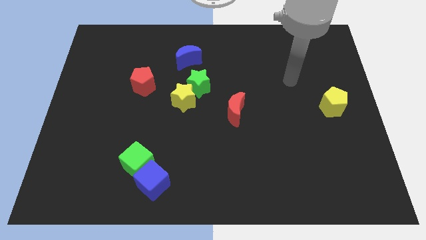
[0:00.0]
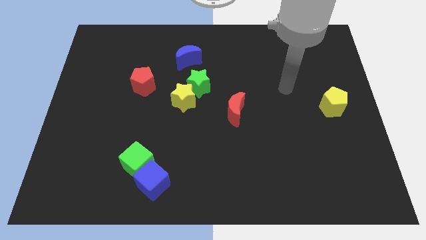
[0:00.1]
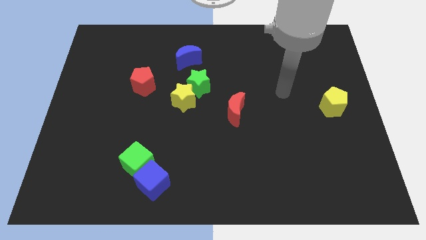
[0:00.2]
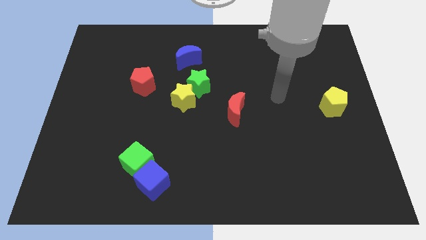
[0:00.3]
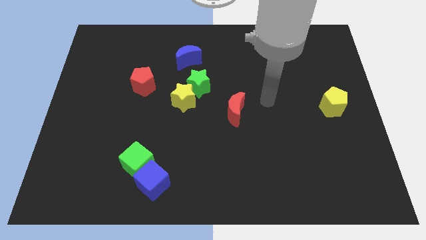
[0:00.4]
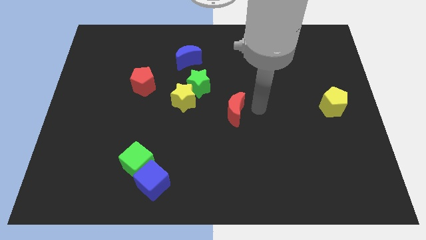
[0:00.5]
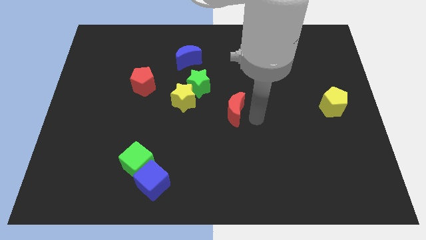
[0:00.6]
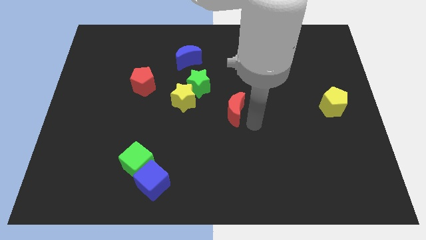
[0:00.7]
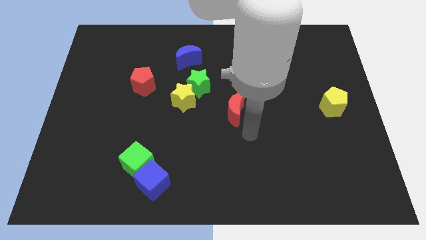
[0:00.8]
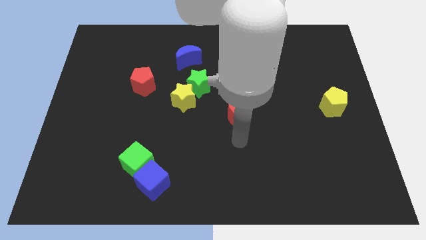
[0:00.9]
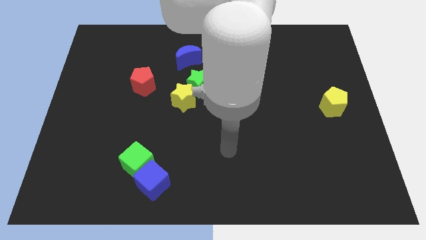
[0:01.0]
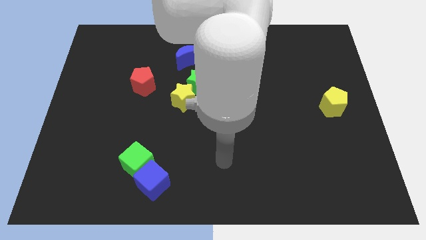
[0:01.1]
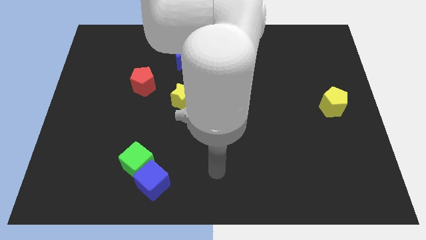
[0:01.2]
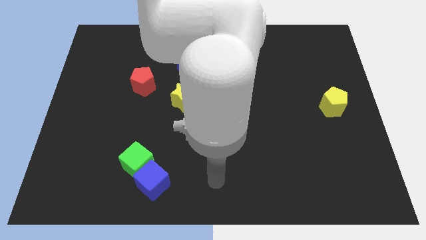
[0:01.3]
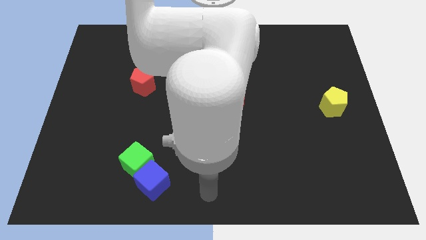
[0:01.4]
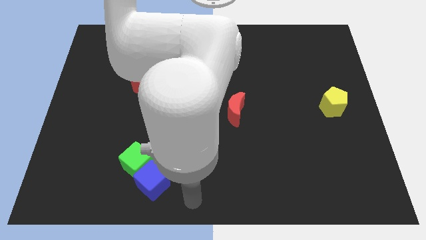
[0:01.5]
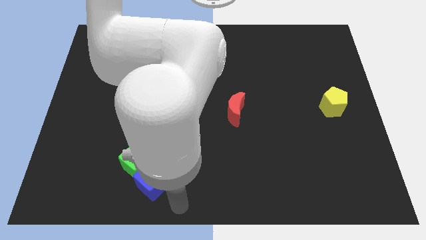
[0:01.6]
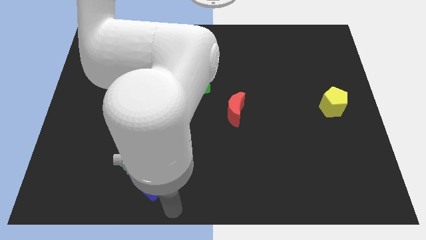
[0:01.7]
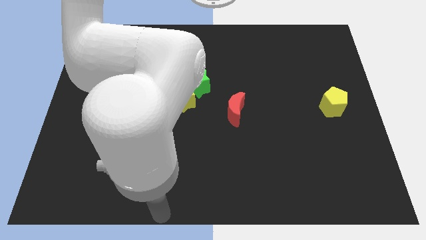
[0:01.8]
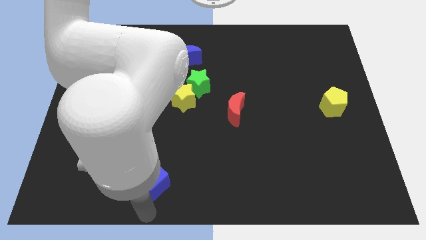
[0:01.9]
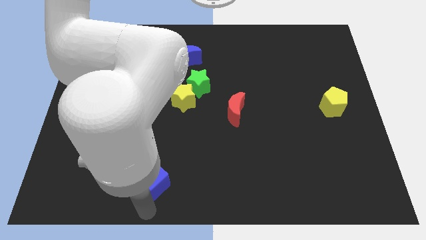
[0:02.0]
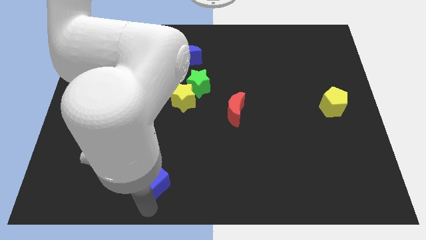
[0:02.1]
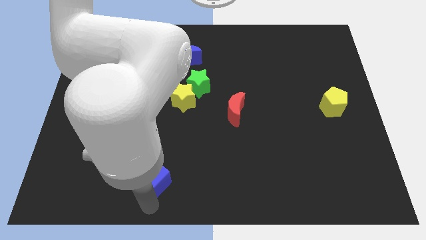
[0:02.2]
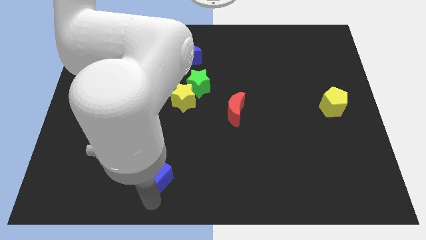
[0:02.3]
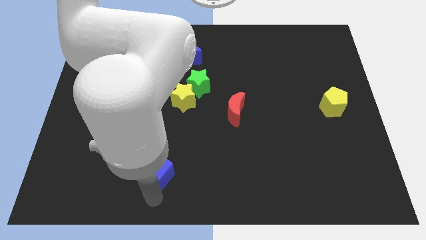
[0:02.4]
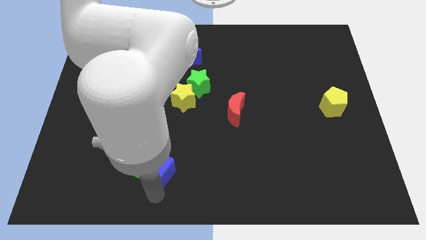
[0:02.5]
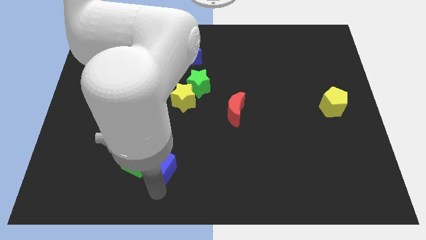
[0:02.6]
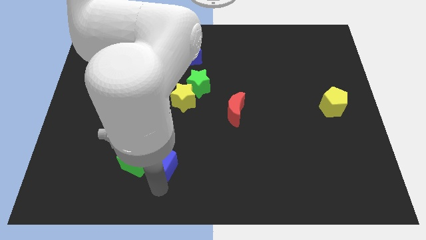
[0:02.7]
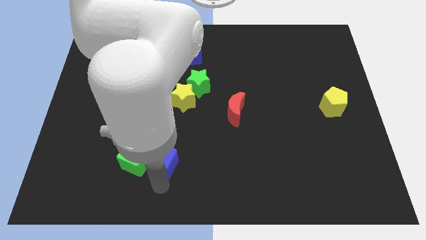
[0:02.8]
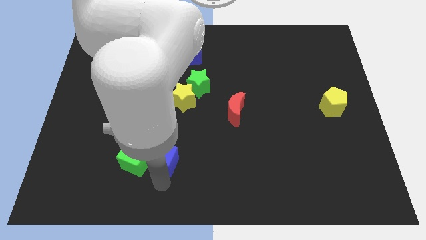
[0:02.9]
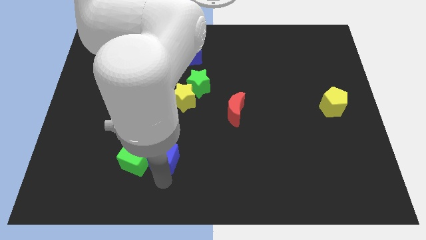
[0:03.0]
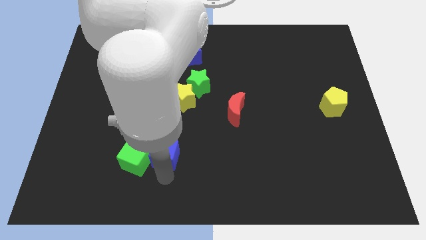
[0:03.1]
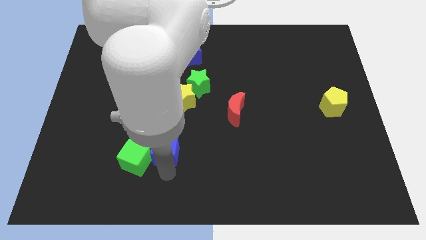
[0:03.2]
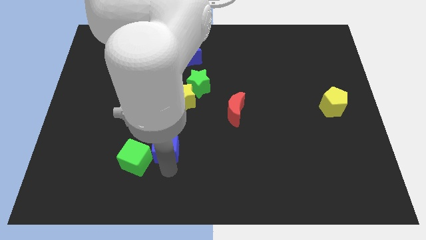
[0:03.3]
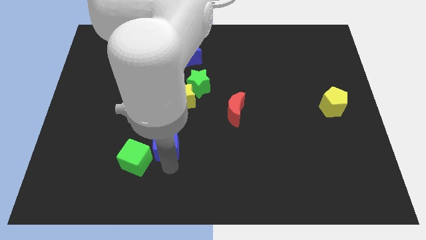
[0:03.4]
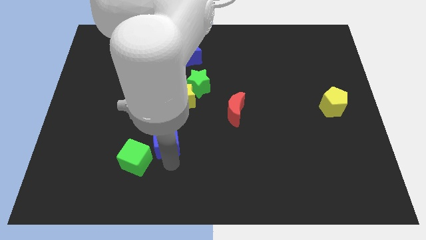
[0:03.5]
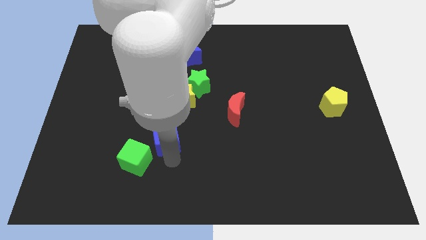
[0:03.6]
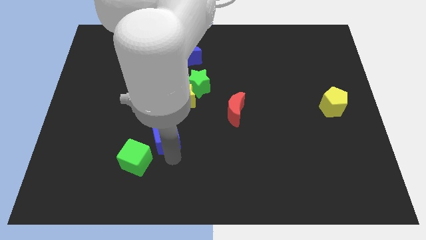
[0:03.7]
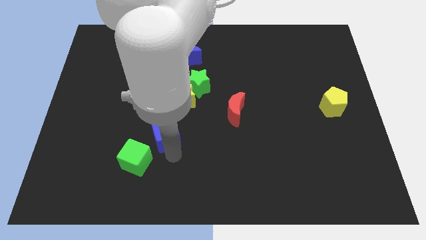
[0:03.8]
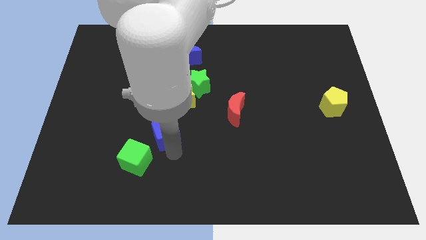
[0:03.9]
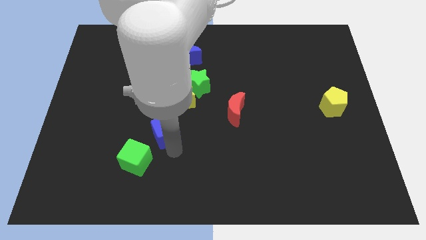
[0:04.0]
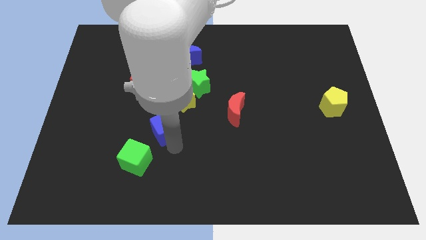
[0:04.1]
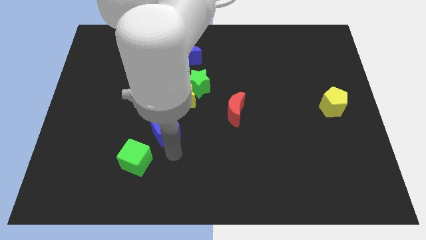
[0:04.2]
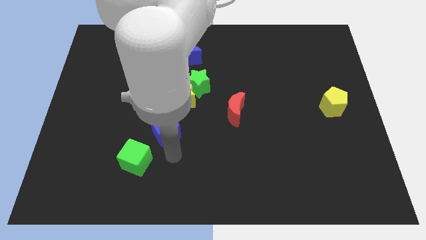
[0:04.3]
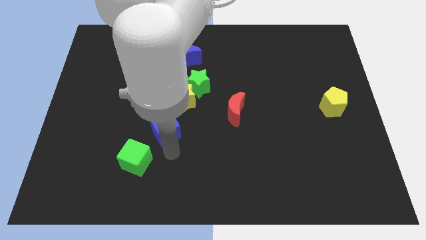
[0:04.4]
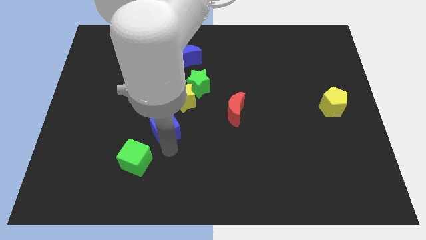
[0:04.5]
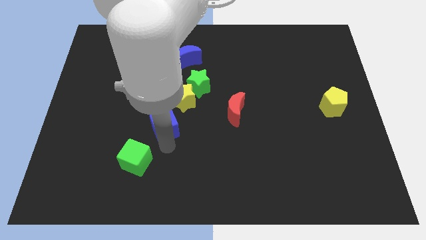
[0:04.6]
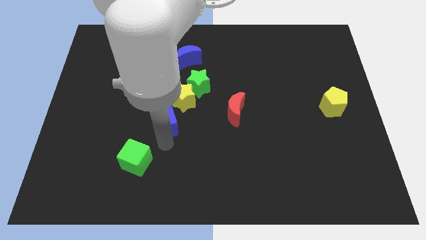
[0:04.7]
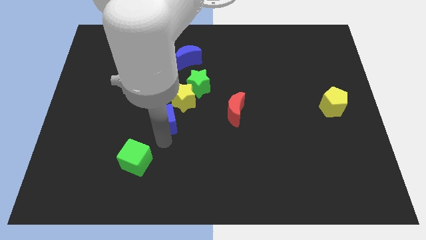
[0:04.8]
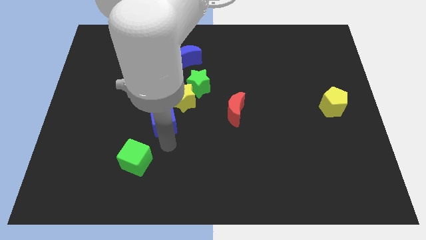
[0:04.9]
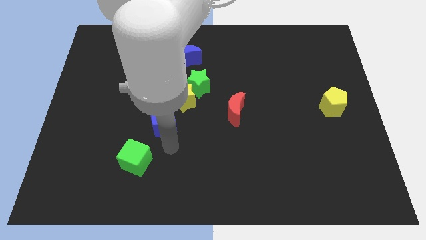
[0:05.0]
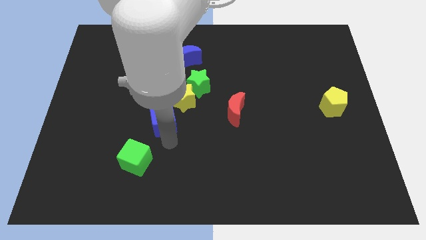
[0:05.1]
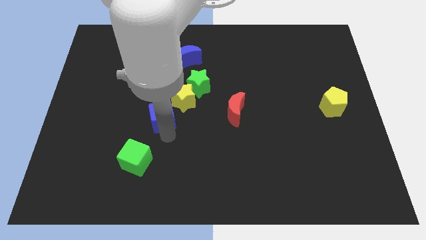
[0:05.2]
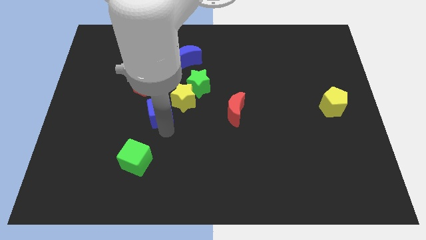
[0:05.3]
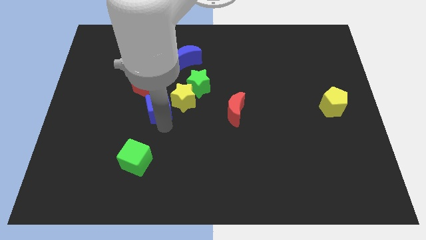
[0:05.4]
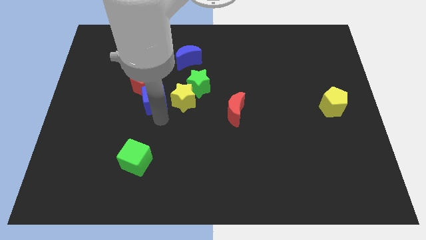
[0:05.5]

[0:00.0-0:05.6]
put the blue cube to the top left side of the yellow star

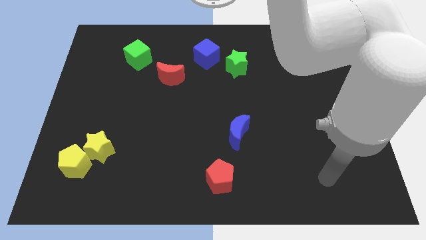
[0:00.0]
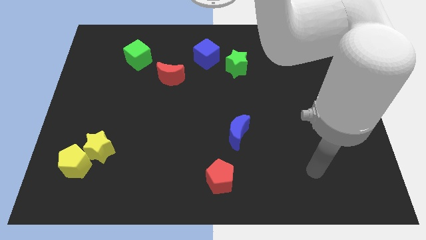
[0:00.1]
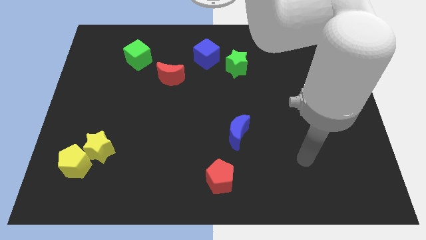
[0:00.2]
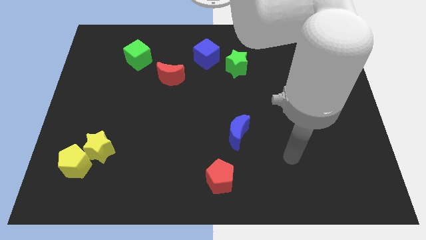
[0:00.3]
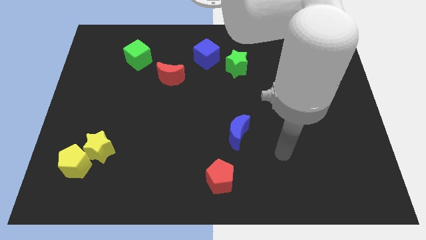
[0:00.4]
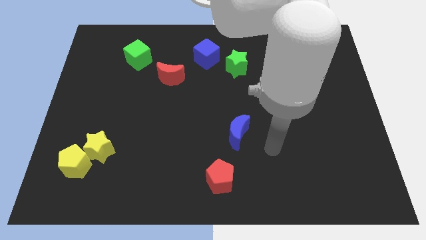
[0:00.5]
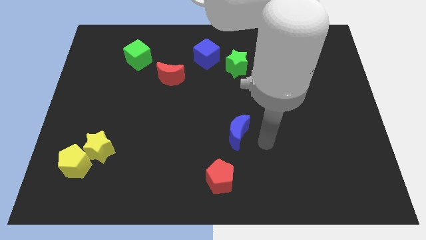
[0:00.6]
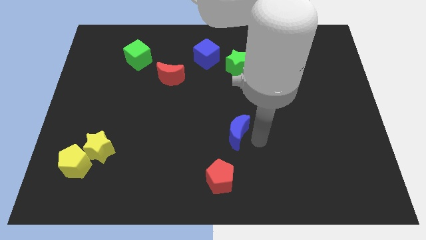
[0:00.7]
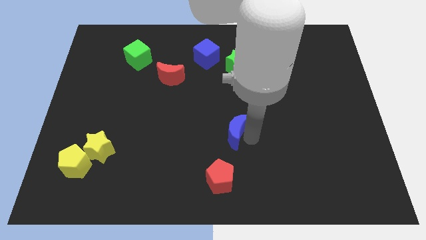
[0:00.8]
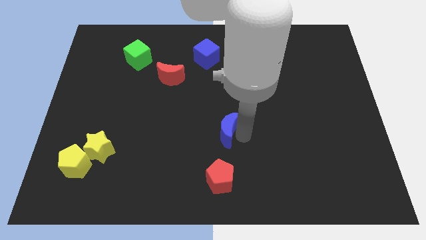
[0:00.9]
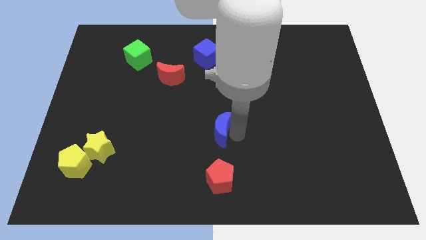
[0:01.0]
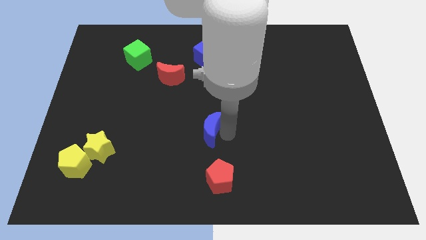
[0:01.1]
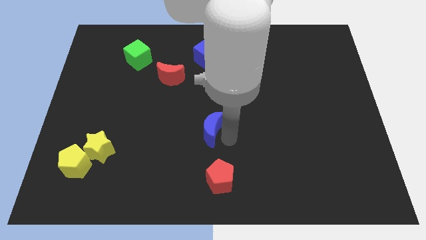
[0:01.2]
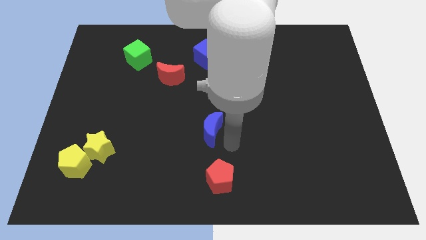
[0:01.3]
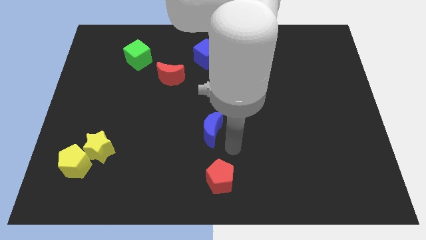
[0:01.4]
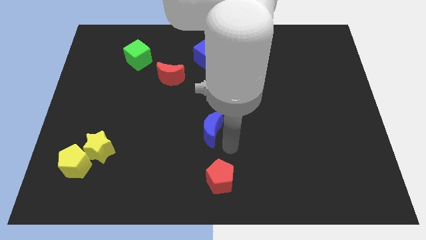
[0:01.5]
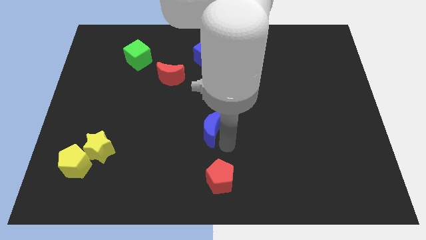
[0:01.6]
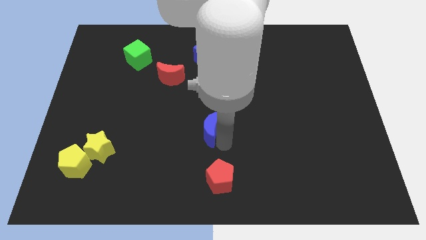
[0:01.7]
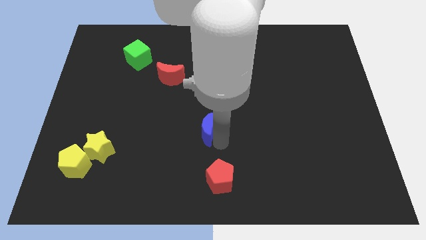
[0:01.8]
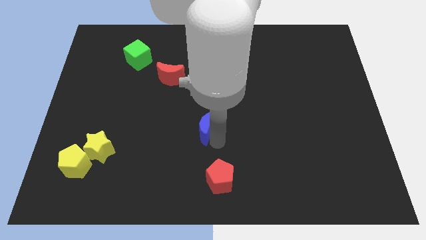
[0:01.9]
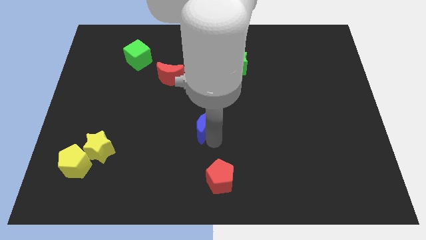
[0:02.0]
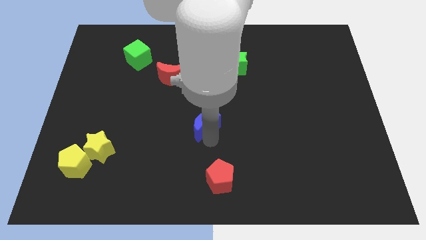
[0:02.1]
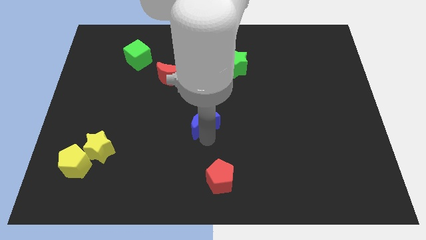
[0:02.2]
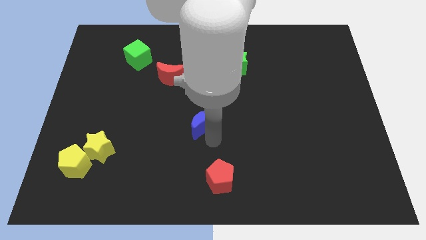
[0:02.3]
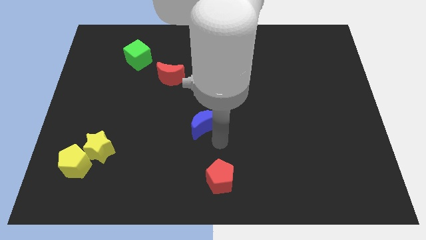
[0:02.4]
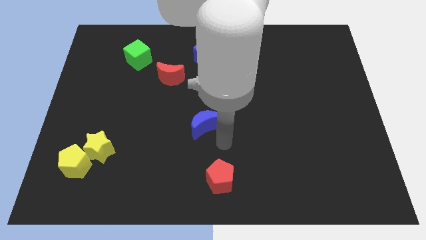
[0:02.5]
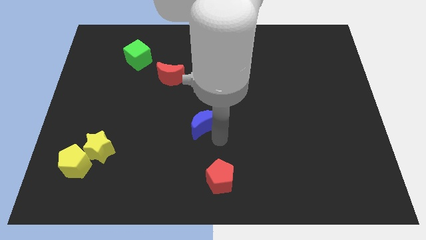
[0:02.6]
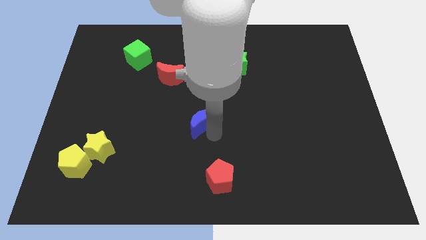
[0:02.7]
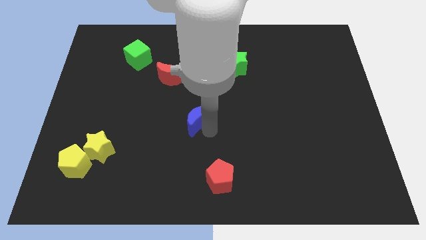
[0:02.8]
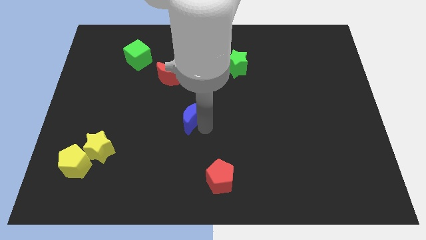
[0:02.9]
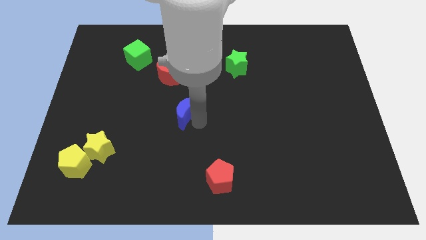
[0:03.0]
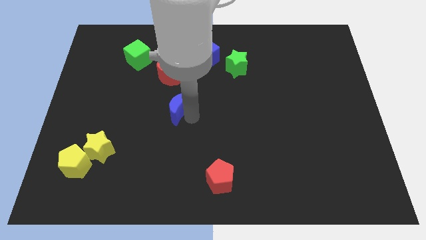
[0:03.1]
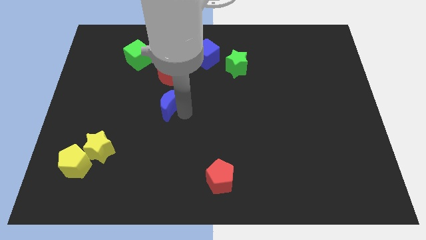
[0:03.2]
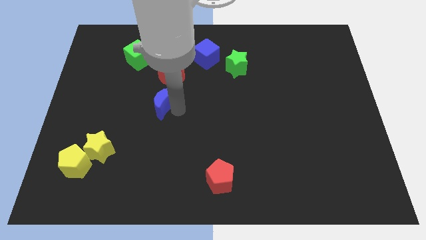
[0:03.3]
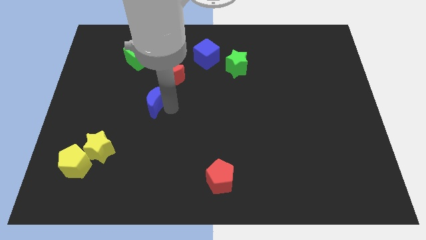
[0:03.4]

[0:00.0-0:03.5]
move the blue moon to the bottom left side of the red moon
